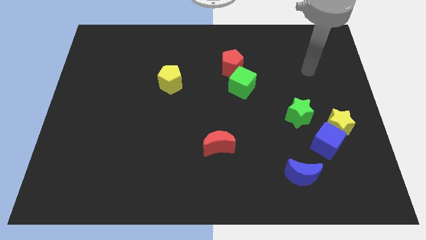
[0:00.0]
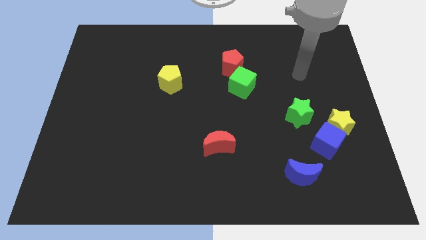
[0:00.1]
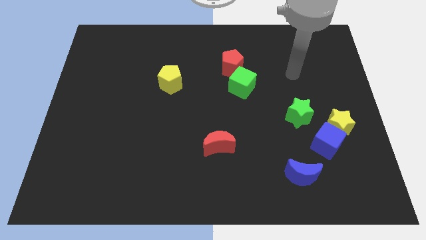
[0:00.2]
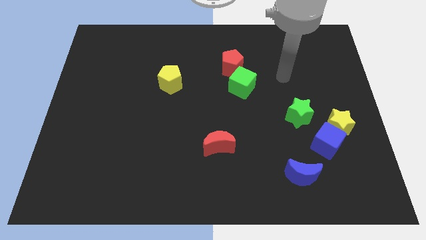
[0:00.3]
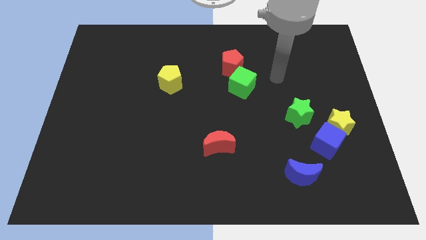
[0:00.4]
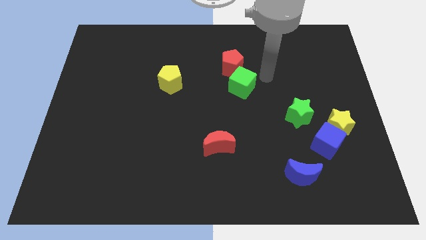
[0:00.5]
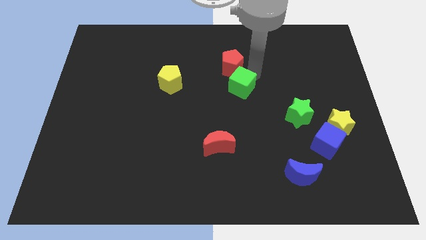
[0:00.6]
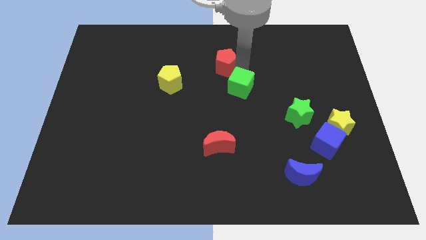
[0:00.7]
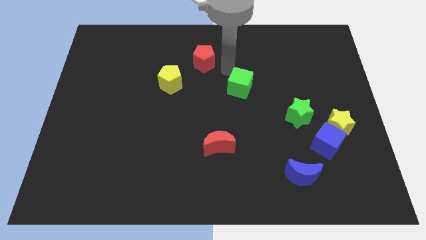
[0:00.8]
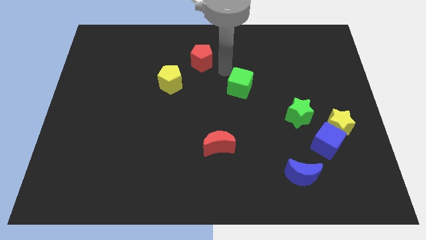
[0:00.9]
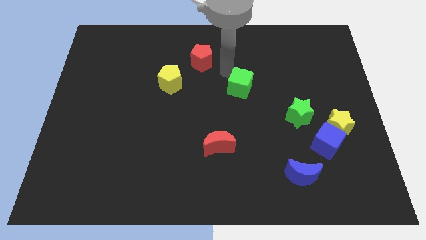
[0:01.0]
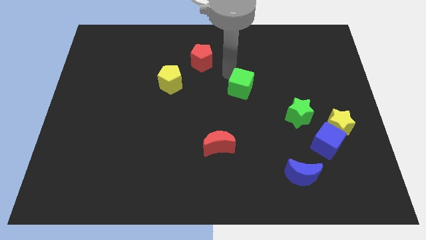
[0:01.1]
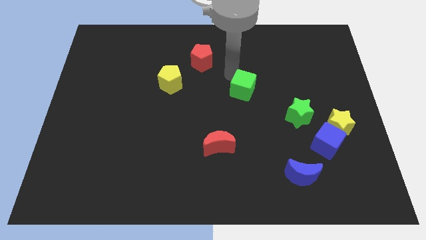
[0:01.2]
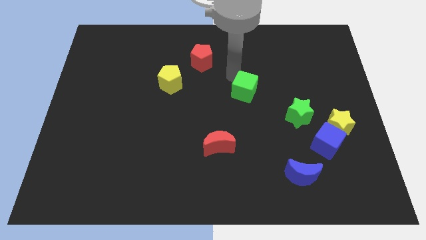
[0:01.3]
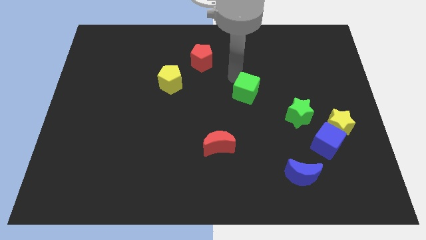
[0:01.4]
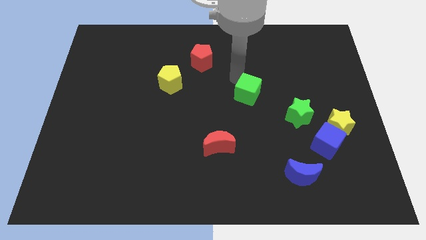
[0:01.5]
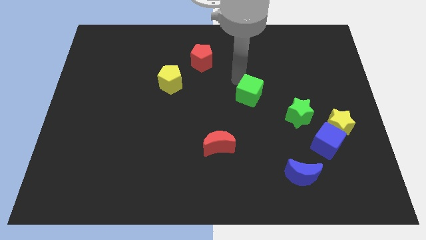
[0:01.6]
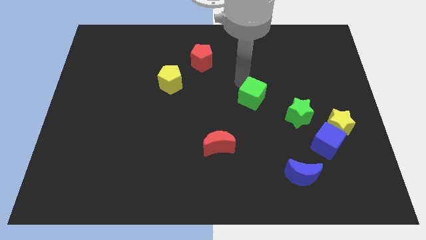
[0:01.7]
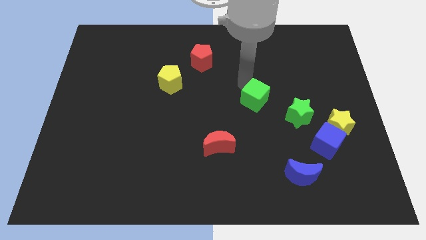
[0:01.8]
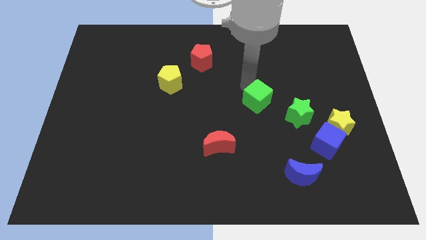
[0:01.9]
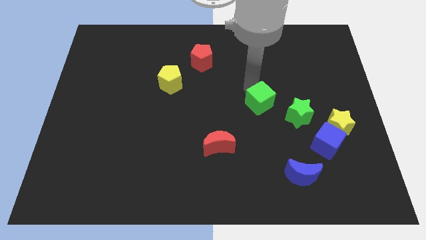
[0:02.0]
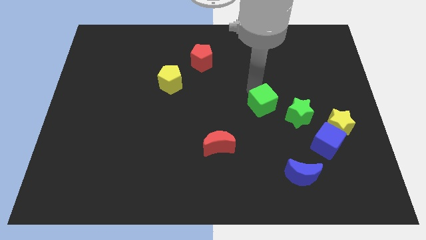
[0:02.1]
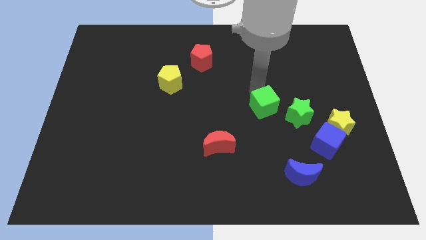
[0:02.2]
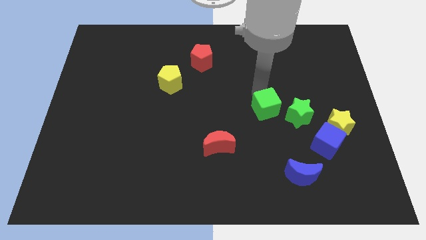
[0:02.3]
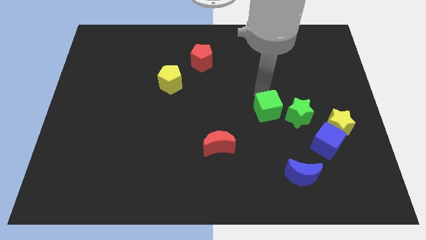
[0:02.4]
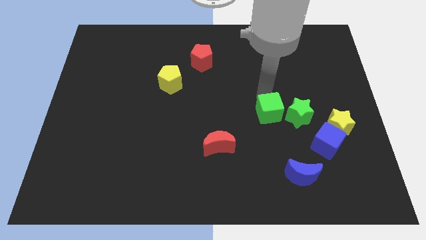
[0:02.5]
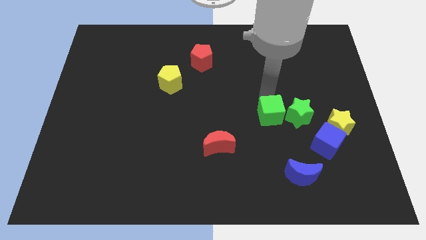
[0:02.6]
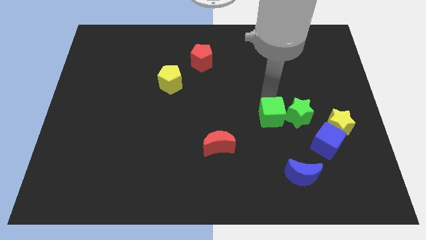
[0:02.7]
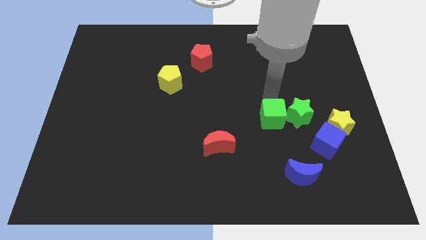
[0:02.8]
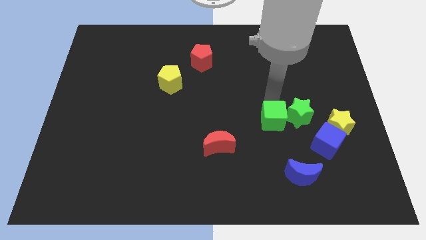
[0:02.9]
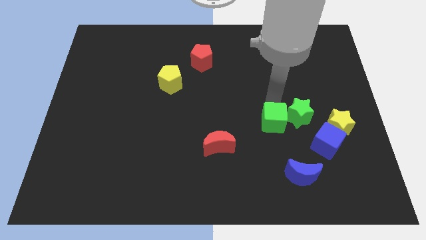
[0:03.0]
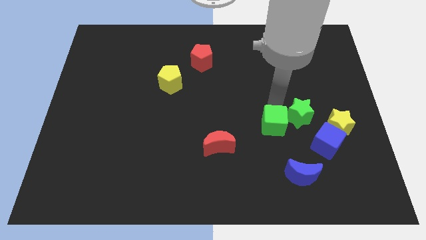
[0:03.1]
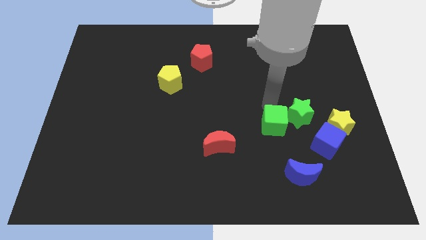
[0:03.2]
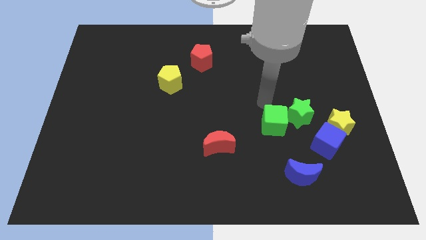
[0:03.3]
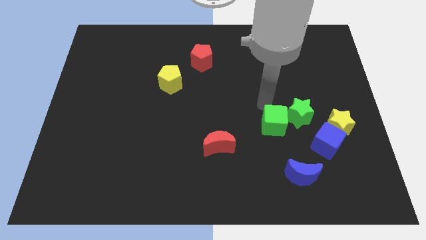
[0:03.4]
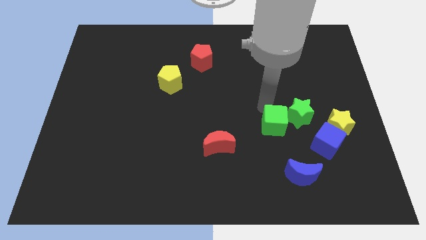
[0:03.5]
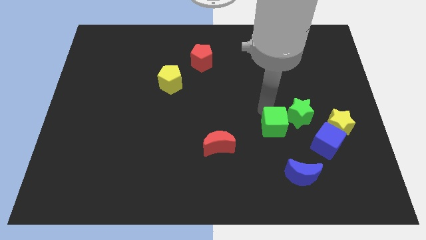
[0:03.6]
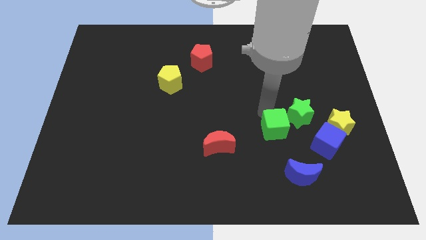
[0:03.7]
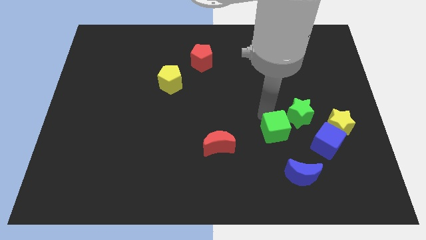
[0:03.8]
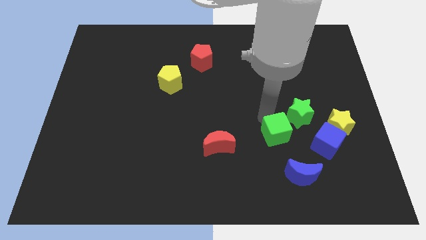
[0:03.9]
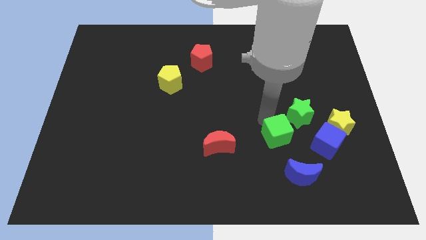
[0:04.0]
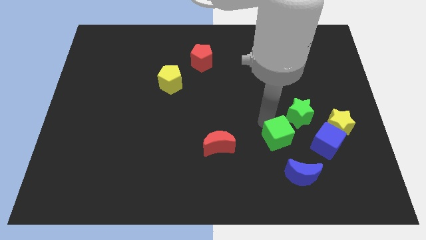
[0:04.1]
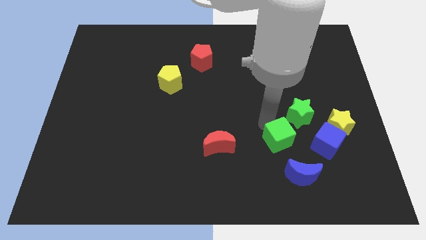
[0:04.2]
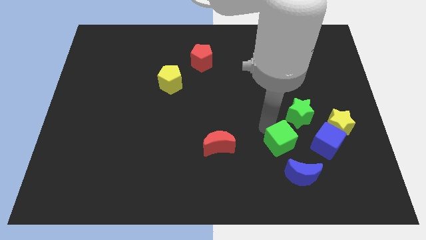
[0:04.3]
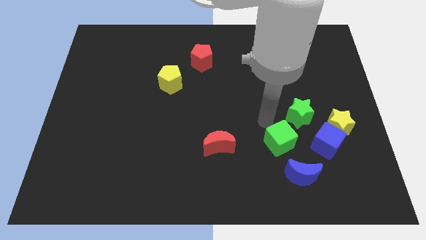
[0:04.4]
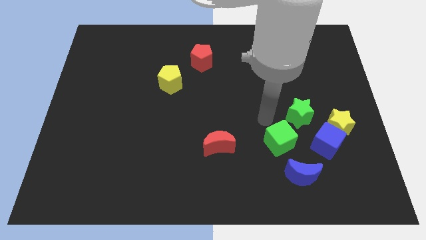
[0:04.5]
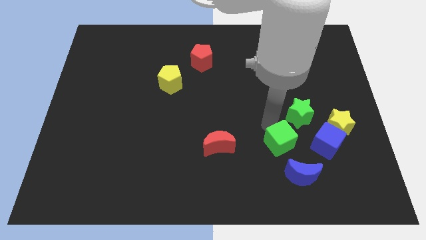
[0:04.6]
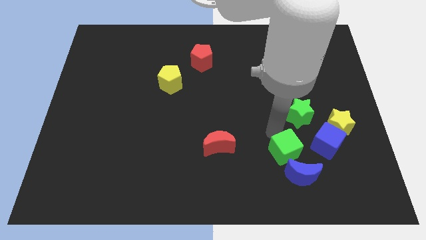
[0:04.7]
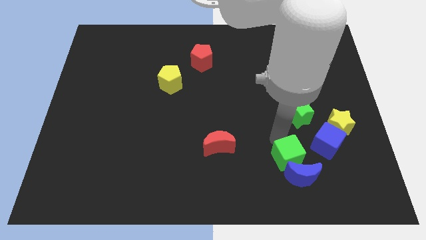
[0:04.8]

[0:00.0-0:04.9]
slide the green cube next to the blue moon

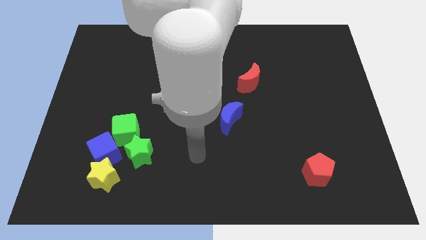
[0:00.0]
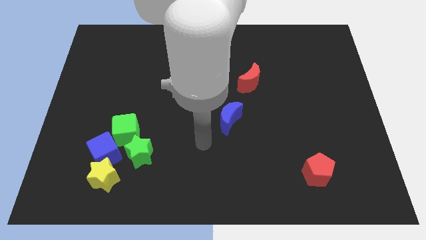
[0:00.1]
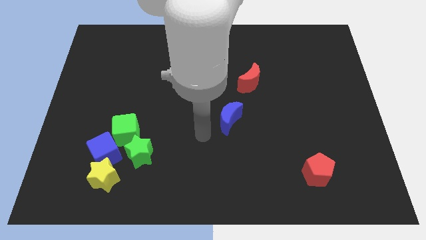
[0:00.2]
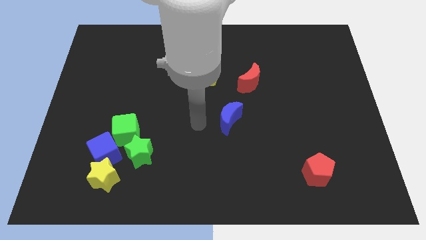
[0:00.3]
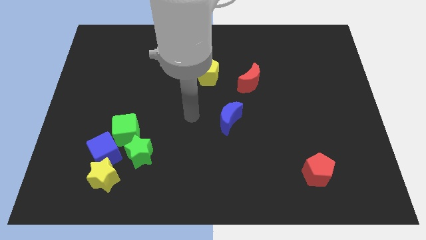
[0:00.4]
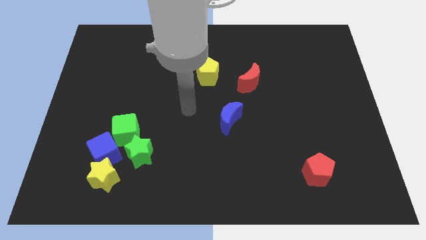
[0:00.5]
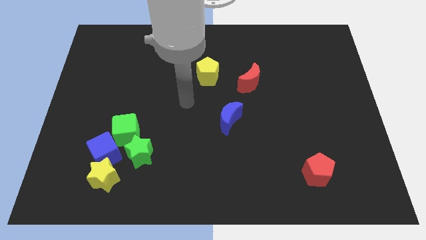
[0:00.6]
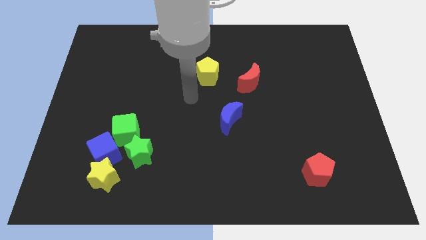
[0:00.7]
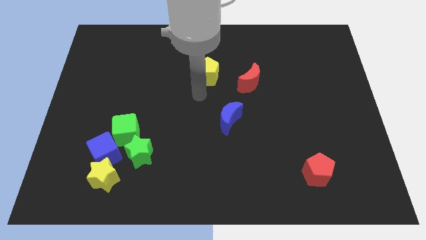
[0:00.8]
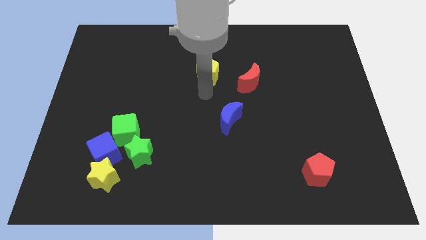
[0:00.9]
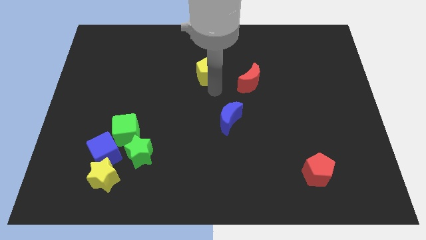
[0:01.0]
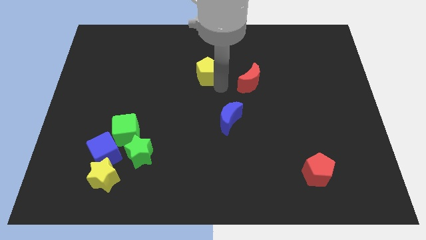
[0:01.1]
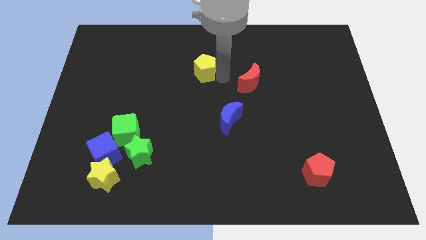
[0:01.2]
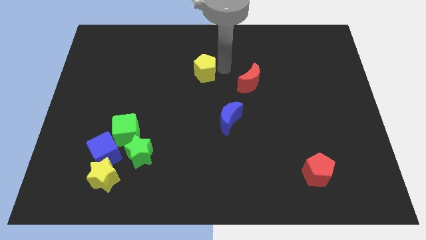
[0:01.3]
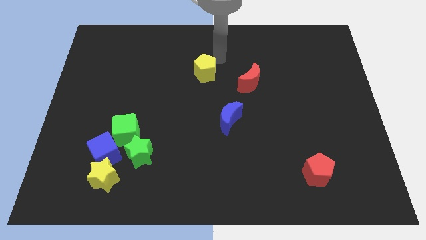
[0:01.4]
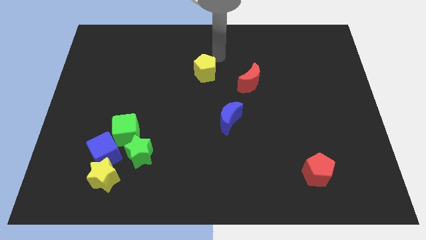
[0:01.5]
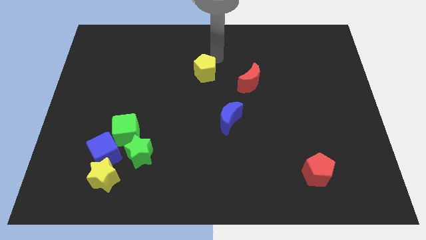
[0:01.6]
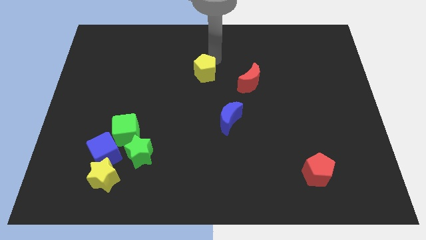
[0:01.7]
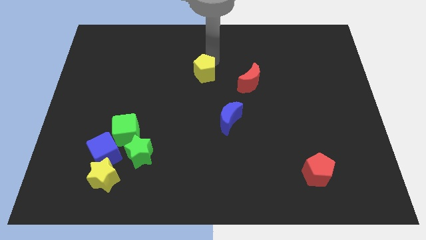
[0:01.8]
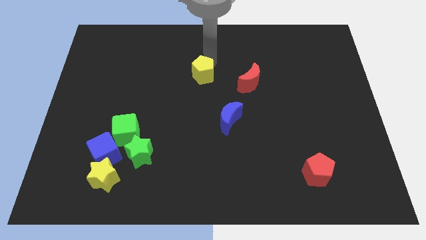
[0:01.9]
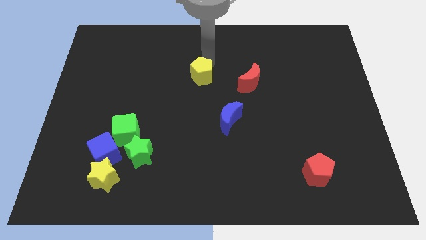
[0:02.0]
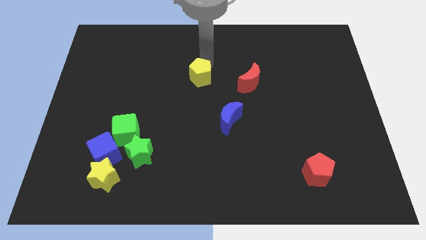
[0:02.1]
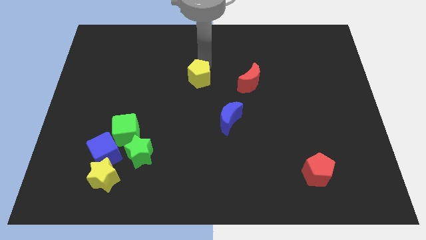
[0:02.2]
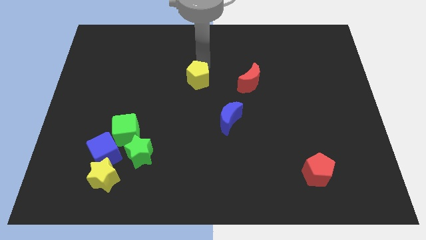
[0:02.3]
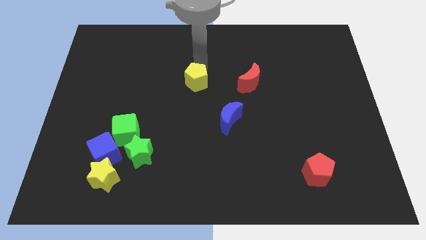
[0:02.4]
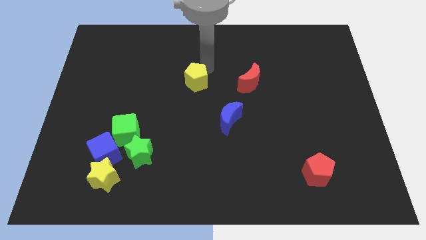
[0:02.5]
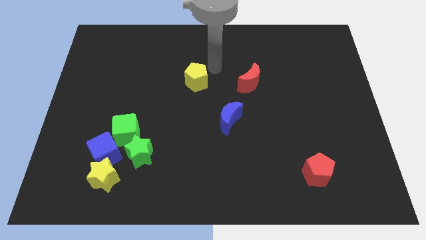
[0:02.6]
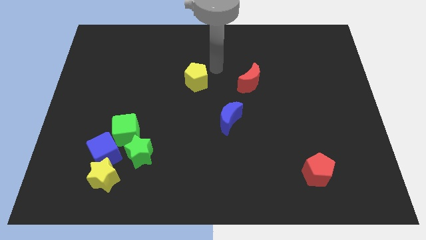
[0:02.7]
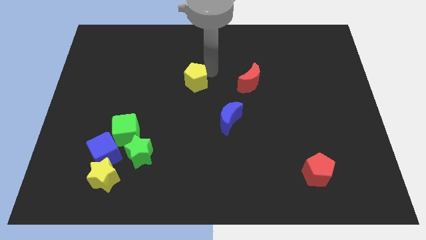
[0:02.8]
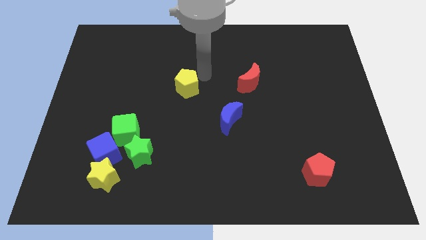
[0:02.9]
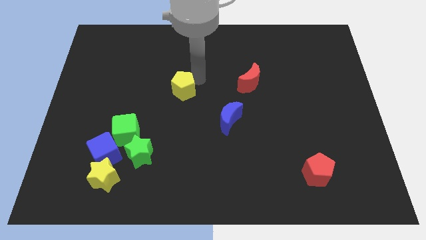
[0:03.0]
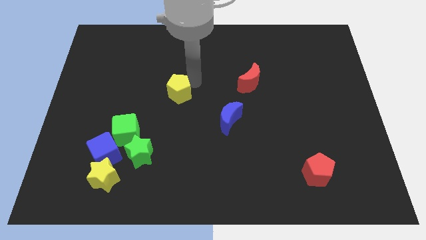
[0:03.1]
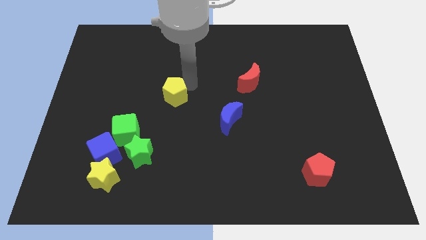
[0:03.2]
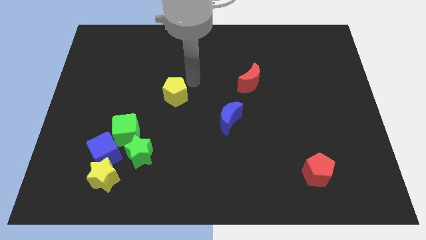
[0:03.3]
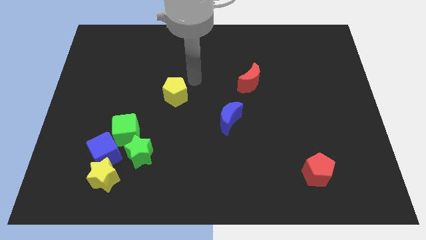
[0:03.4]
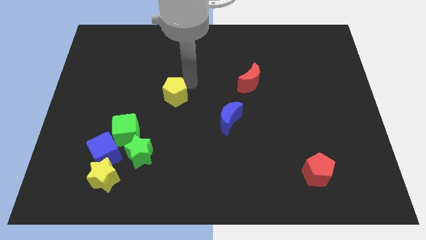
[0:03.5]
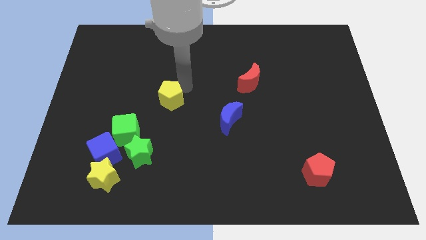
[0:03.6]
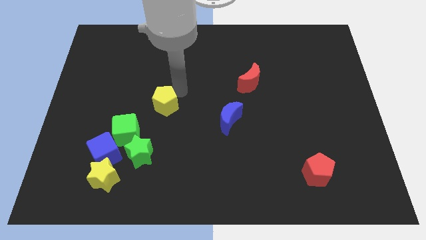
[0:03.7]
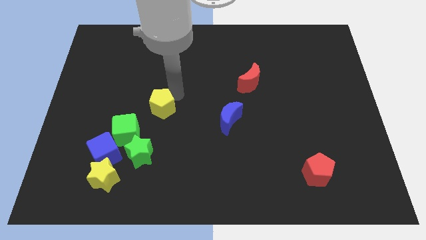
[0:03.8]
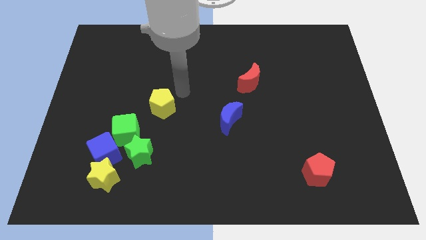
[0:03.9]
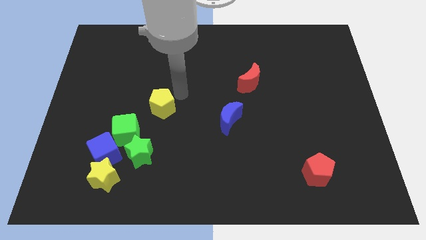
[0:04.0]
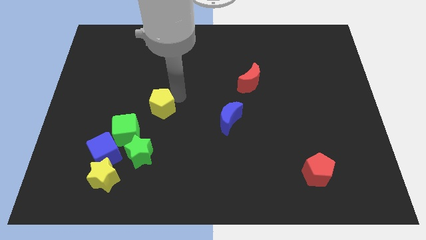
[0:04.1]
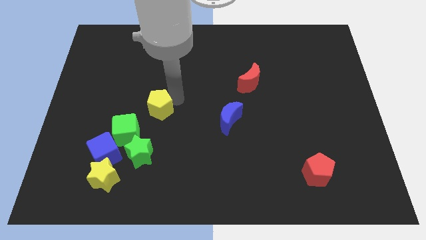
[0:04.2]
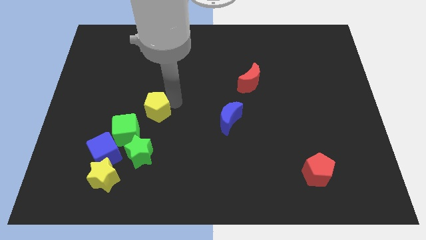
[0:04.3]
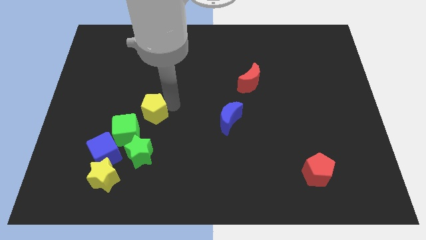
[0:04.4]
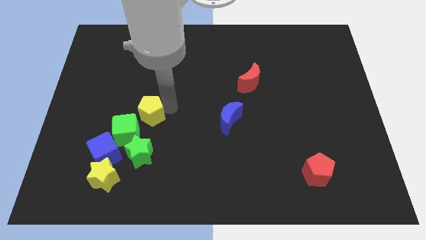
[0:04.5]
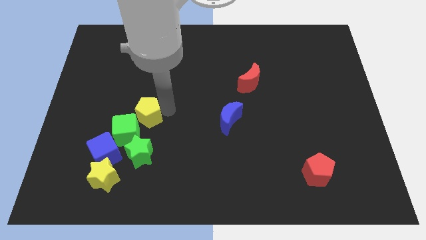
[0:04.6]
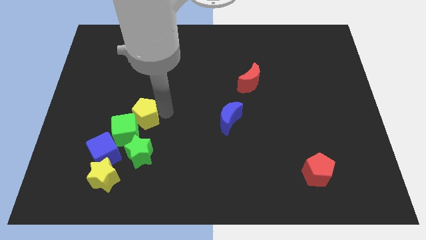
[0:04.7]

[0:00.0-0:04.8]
move the yellow pentagon next to the green cube
